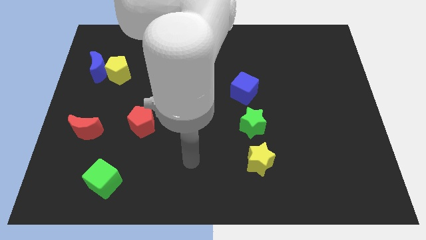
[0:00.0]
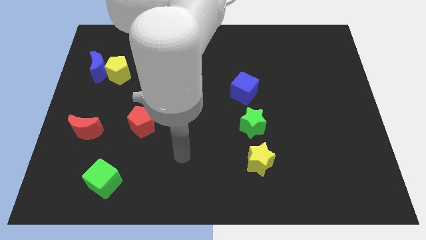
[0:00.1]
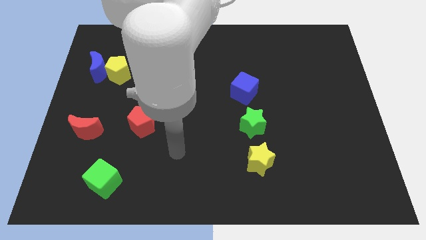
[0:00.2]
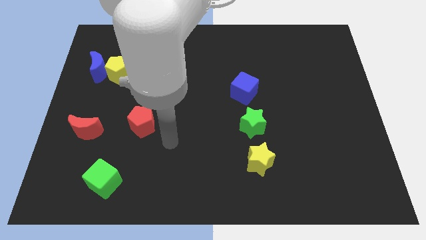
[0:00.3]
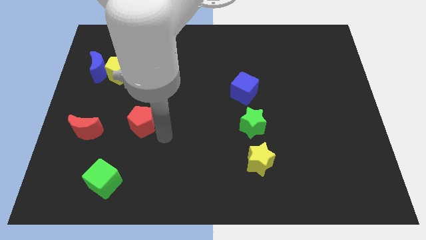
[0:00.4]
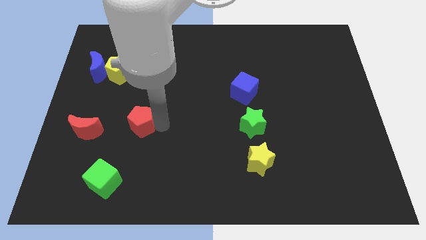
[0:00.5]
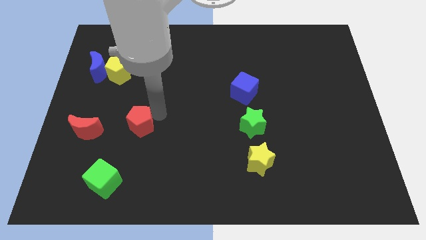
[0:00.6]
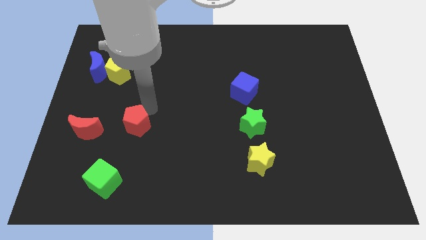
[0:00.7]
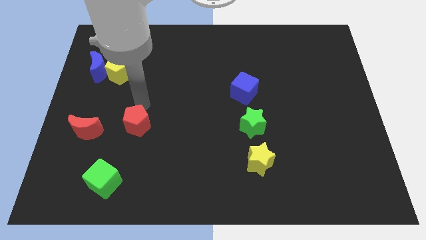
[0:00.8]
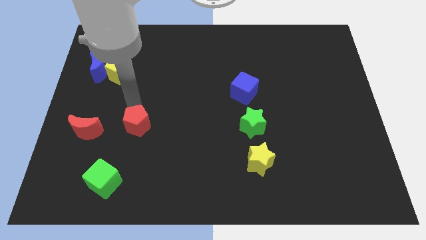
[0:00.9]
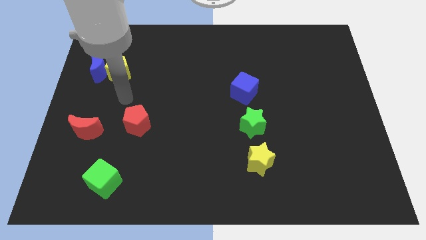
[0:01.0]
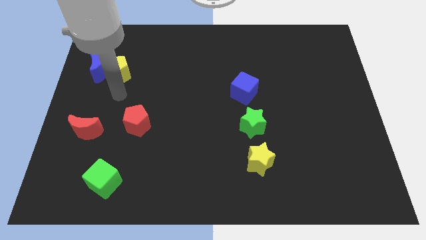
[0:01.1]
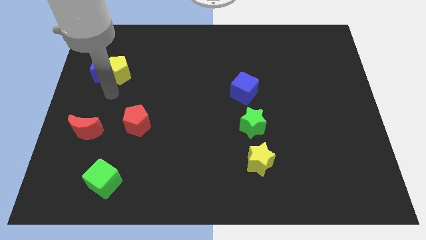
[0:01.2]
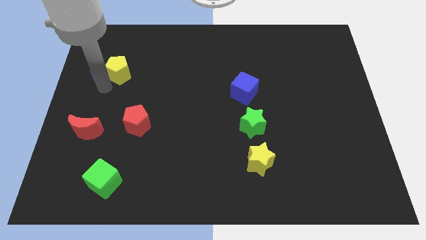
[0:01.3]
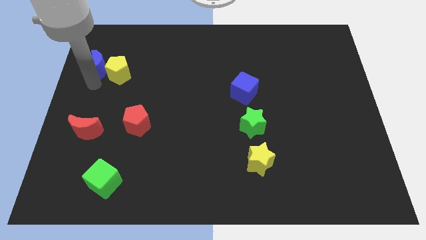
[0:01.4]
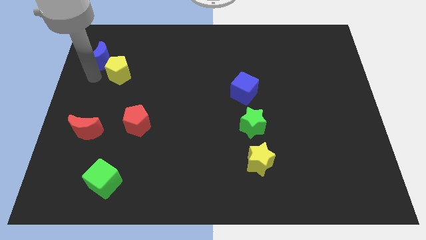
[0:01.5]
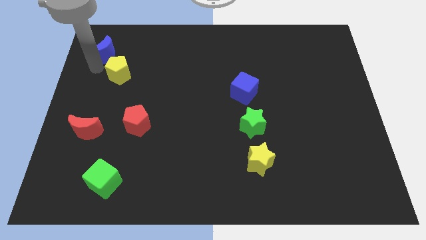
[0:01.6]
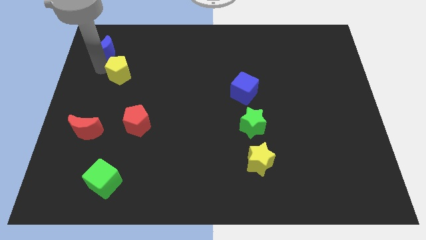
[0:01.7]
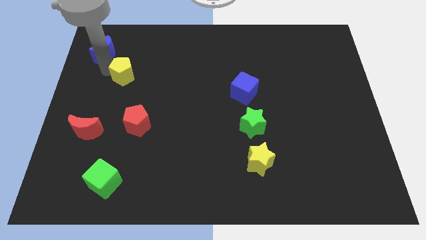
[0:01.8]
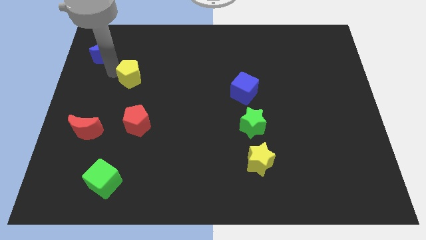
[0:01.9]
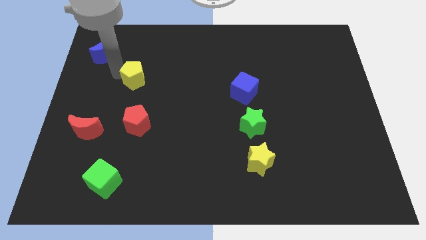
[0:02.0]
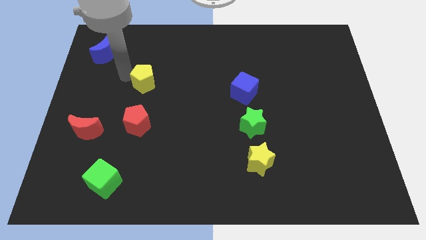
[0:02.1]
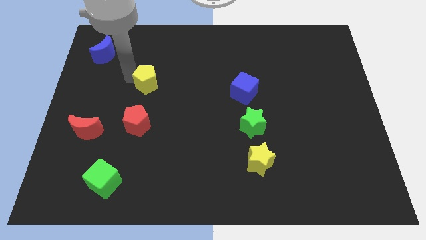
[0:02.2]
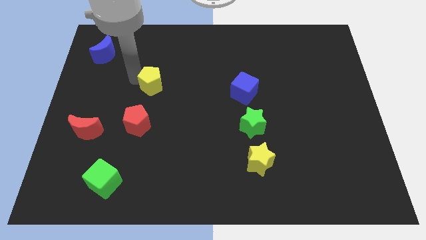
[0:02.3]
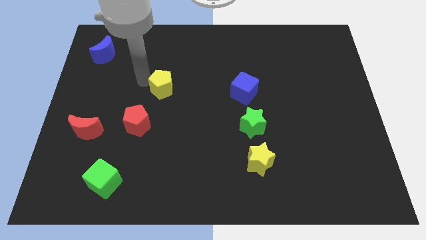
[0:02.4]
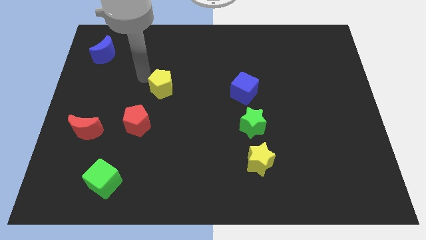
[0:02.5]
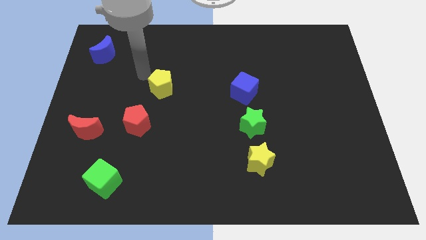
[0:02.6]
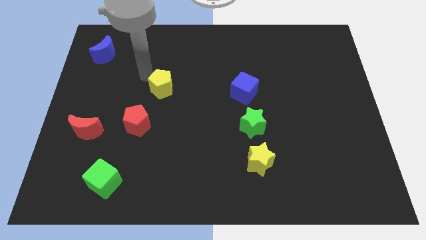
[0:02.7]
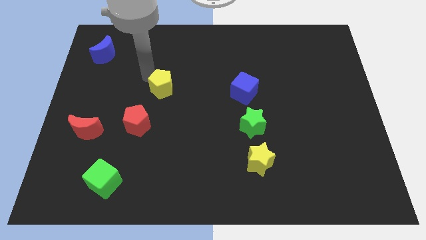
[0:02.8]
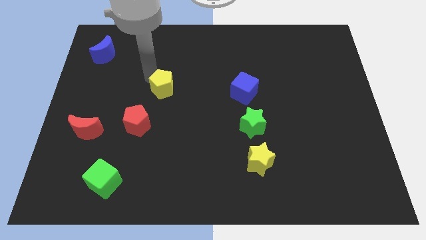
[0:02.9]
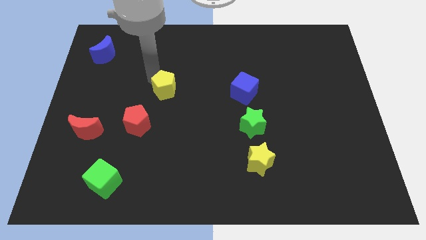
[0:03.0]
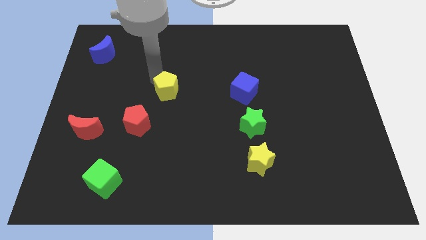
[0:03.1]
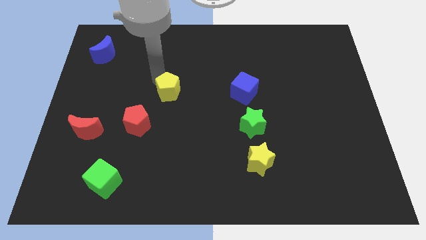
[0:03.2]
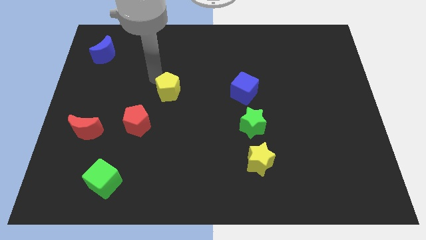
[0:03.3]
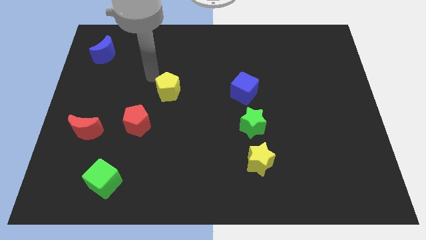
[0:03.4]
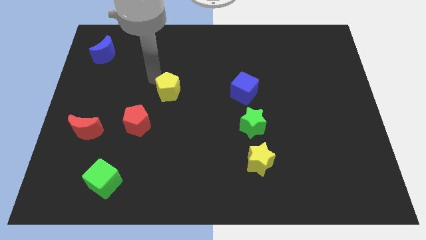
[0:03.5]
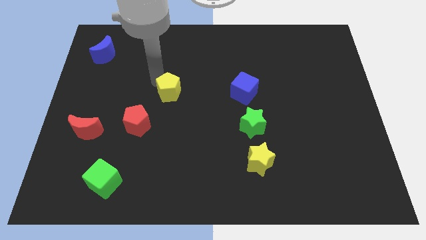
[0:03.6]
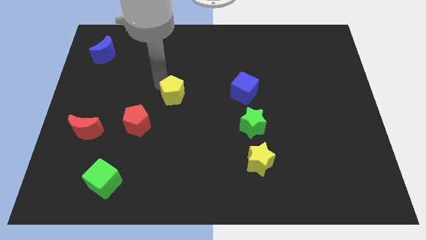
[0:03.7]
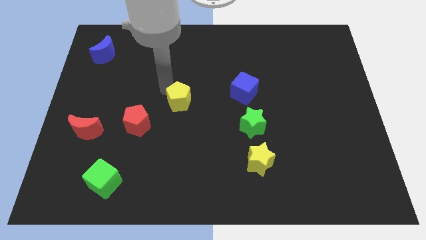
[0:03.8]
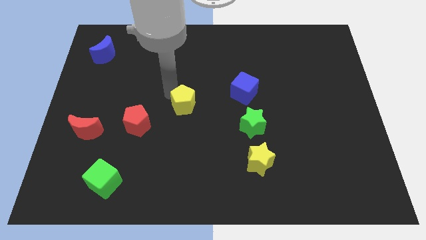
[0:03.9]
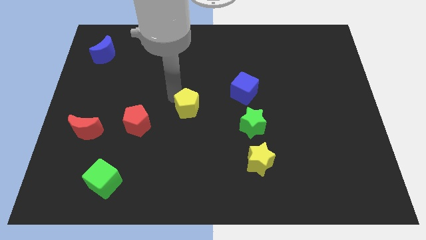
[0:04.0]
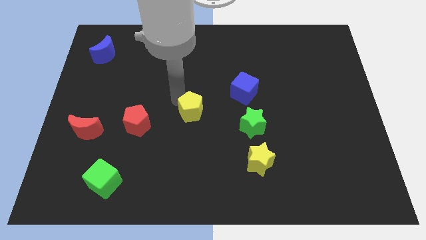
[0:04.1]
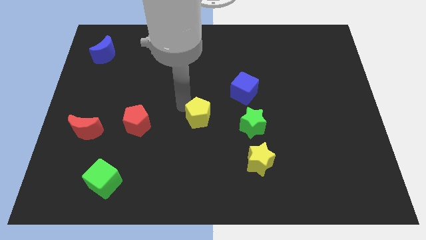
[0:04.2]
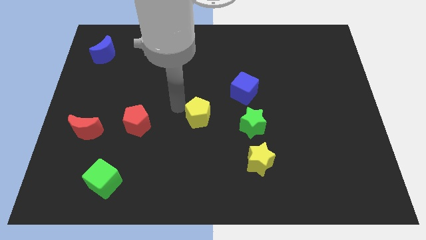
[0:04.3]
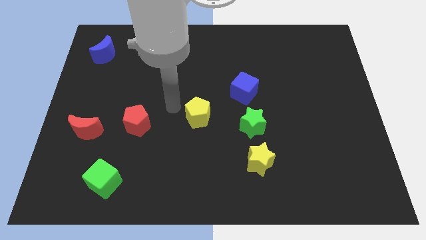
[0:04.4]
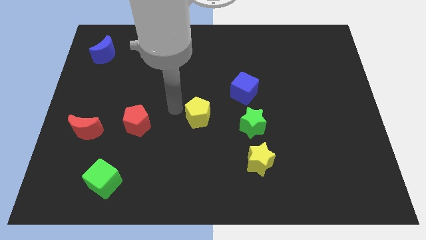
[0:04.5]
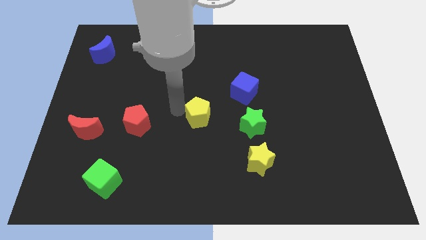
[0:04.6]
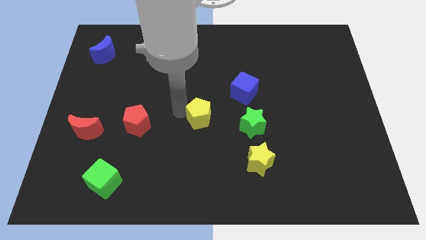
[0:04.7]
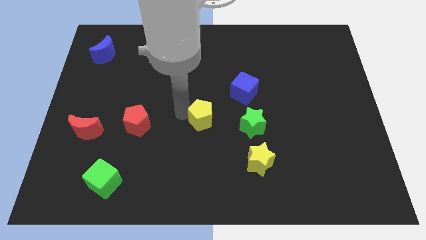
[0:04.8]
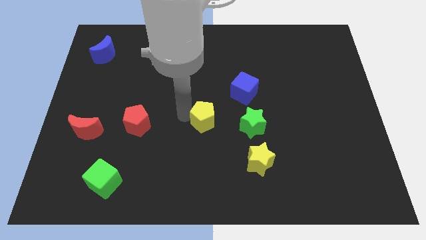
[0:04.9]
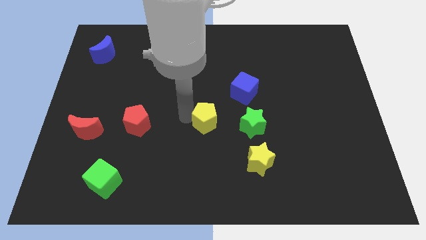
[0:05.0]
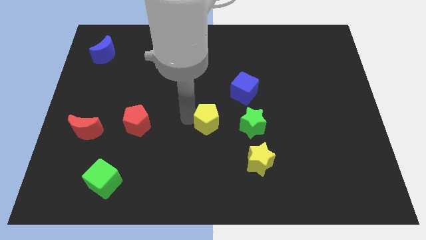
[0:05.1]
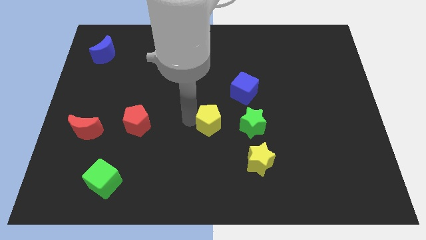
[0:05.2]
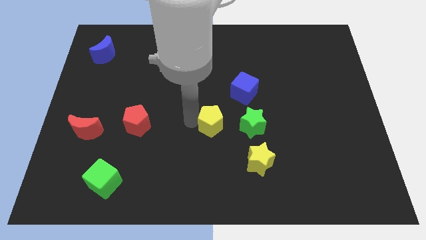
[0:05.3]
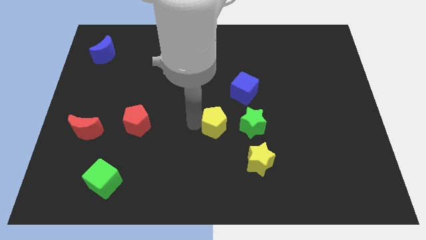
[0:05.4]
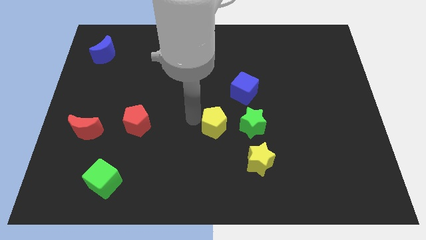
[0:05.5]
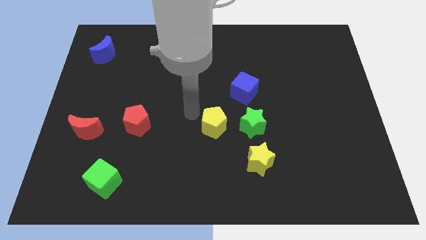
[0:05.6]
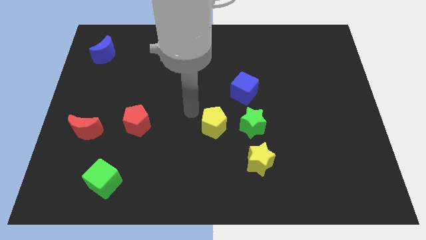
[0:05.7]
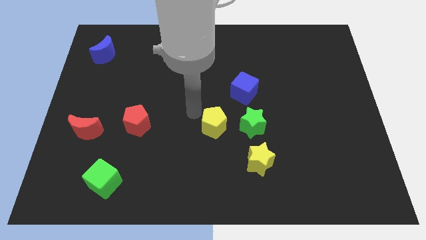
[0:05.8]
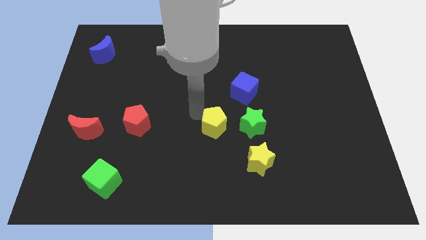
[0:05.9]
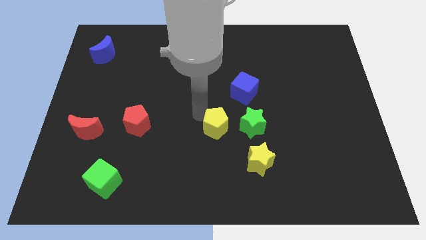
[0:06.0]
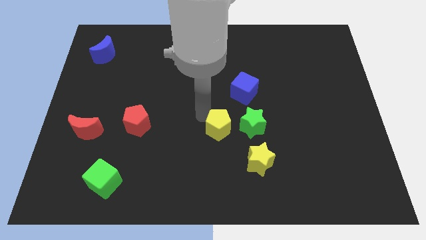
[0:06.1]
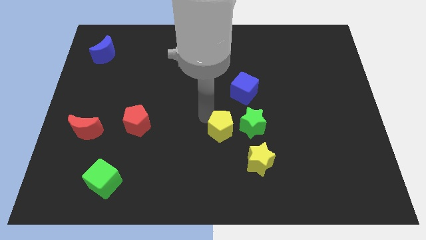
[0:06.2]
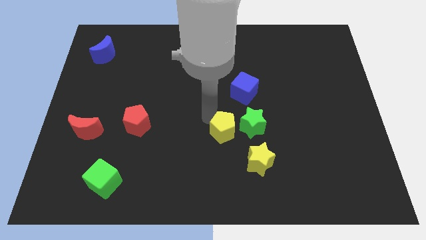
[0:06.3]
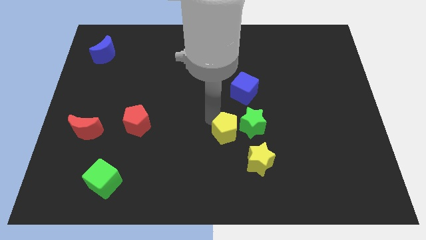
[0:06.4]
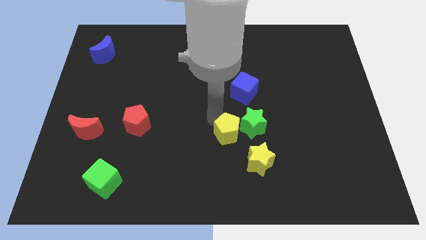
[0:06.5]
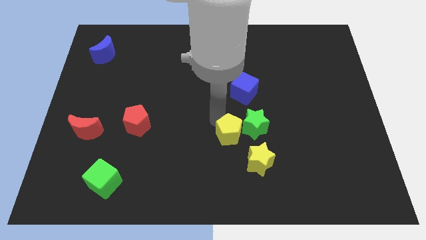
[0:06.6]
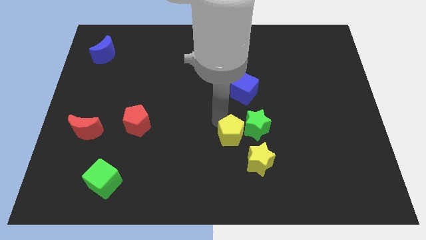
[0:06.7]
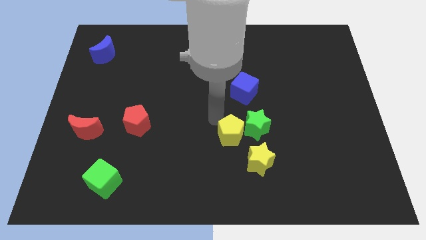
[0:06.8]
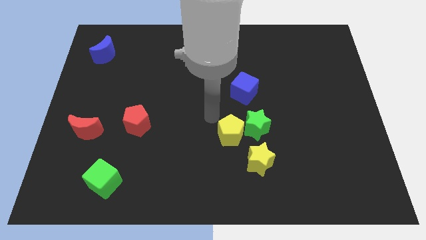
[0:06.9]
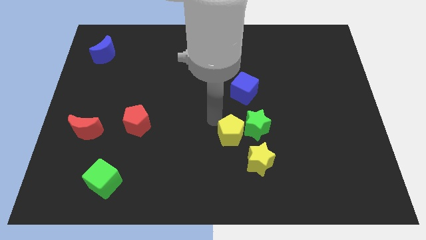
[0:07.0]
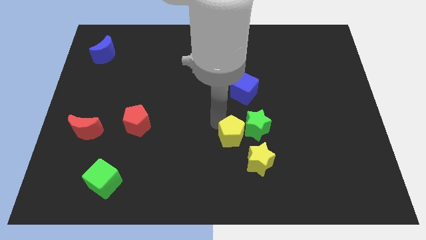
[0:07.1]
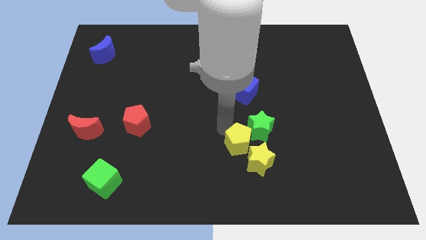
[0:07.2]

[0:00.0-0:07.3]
put the yellow pentagon towards the yellow star
